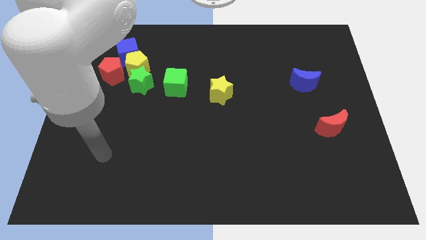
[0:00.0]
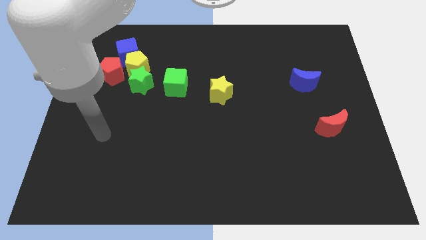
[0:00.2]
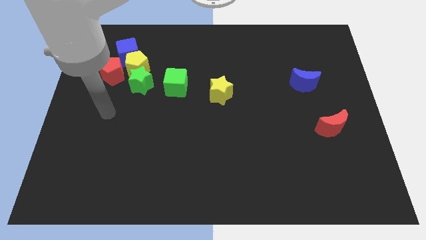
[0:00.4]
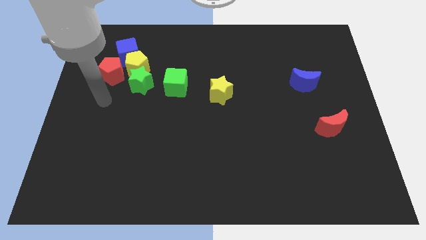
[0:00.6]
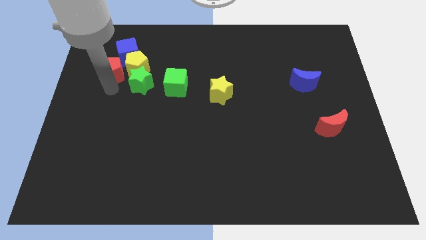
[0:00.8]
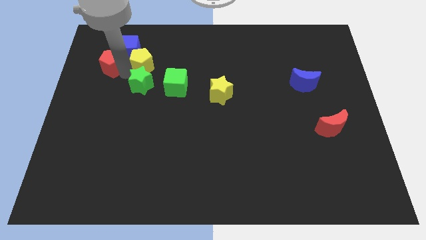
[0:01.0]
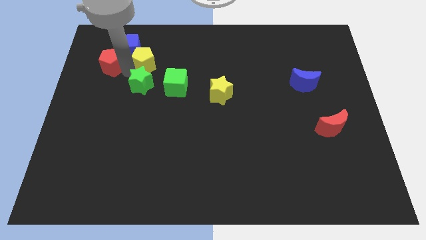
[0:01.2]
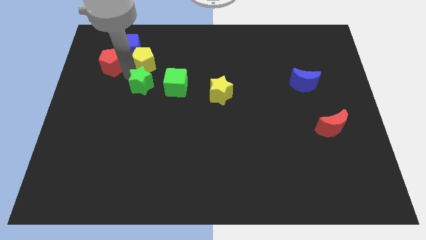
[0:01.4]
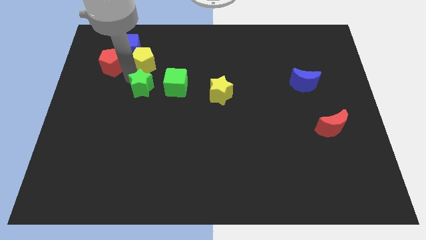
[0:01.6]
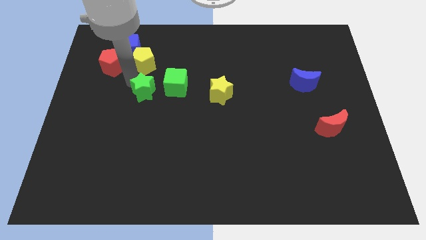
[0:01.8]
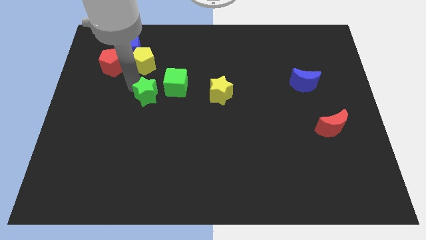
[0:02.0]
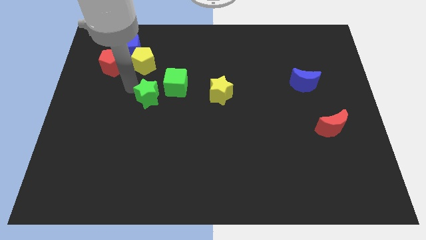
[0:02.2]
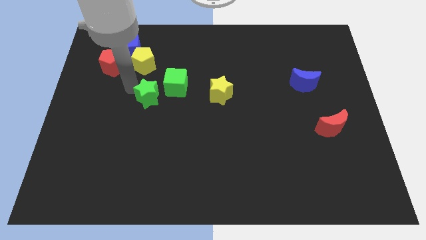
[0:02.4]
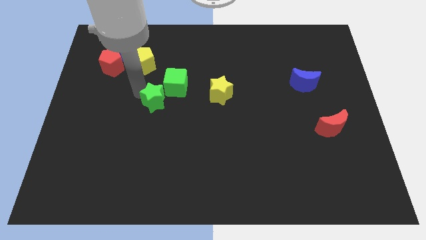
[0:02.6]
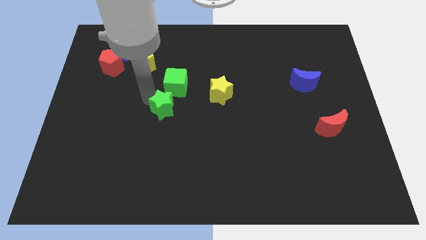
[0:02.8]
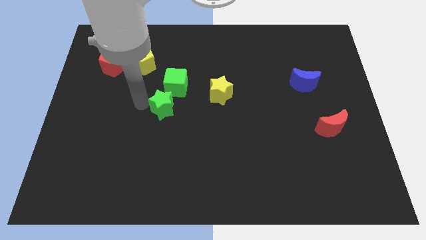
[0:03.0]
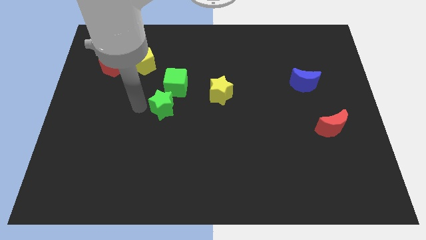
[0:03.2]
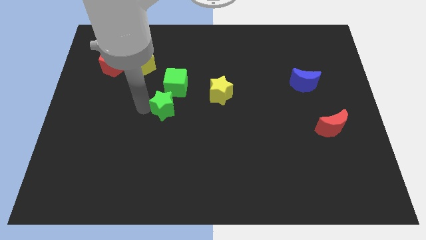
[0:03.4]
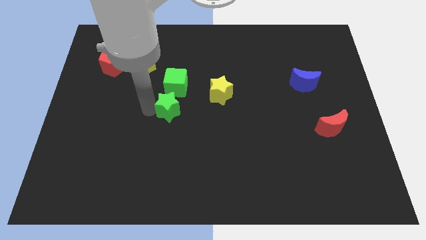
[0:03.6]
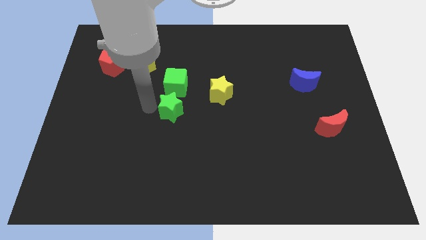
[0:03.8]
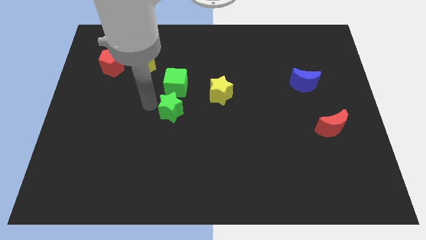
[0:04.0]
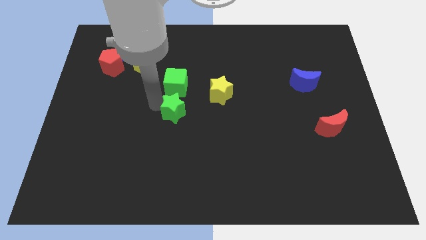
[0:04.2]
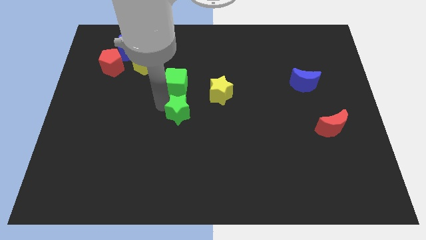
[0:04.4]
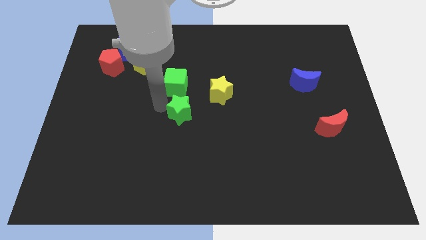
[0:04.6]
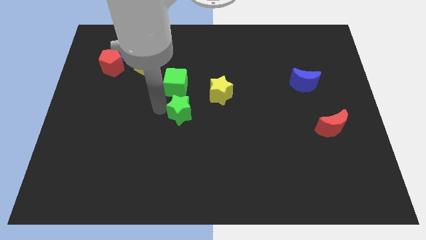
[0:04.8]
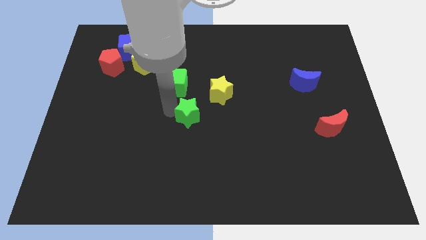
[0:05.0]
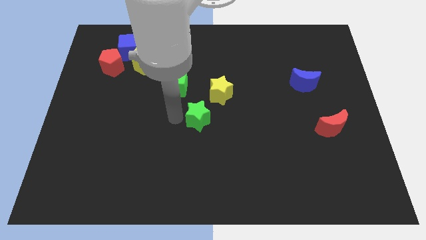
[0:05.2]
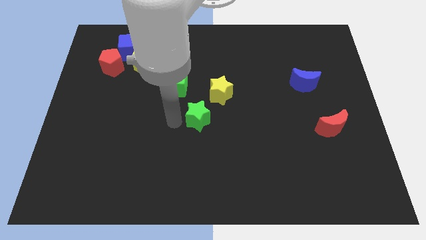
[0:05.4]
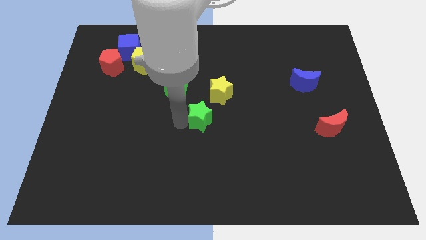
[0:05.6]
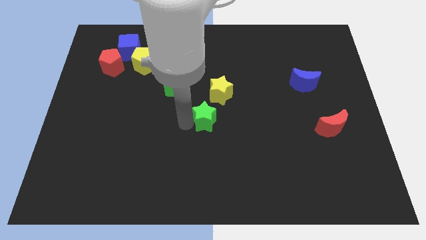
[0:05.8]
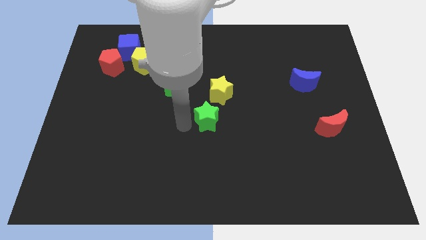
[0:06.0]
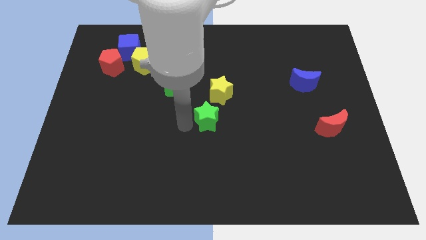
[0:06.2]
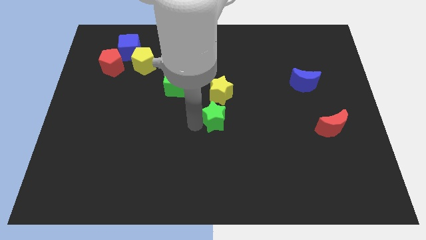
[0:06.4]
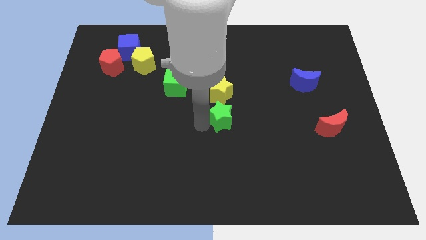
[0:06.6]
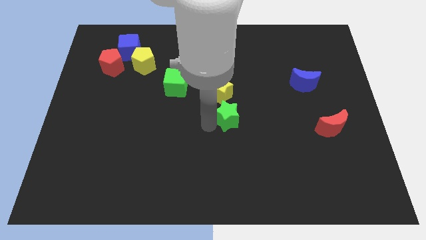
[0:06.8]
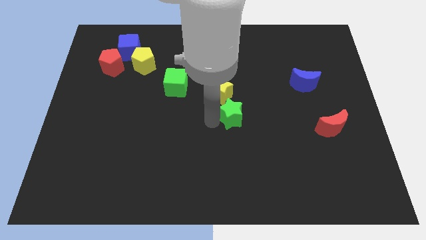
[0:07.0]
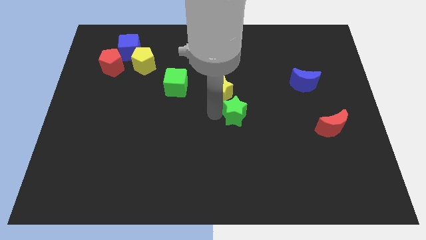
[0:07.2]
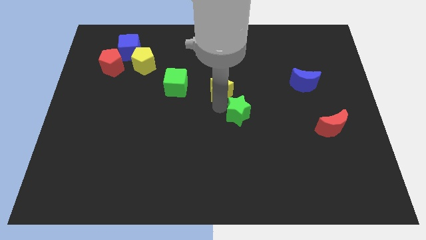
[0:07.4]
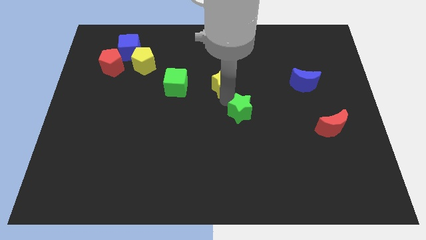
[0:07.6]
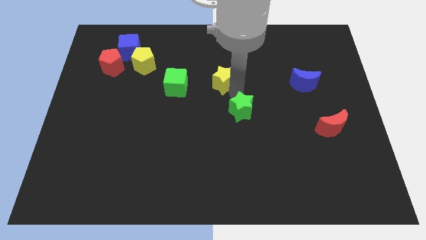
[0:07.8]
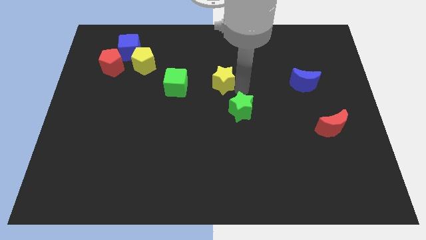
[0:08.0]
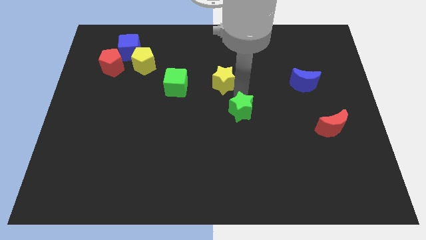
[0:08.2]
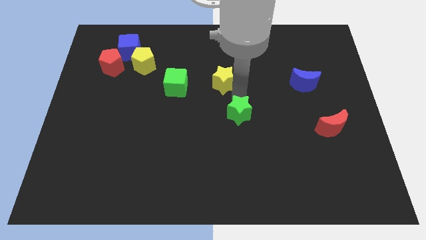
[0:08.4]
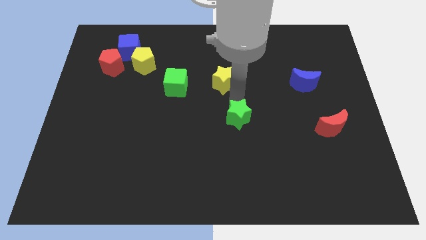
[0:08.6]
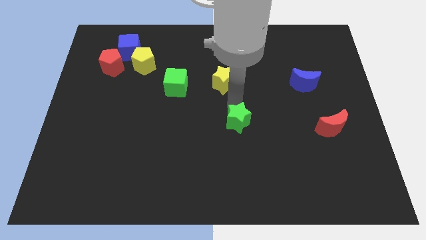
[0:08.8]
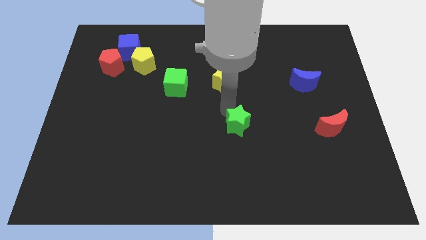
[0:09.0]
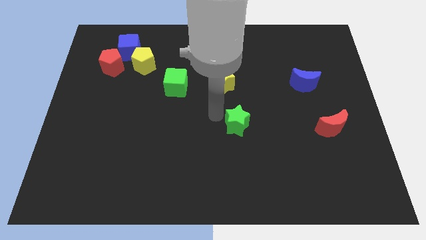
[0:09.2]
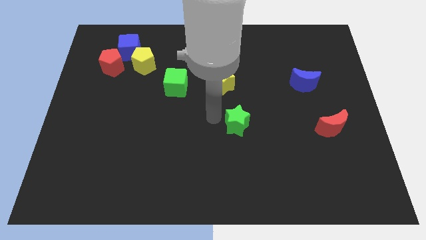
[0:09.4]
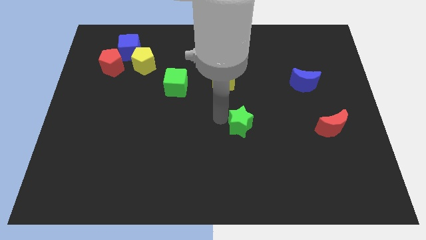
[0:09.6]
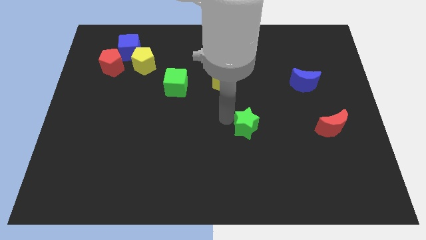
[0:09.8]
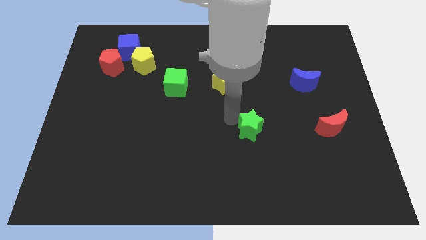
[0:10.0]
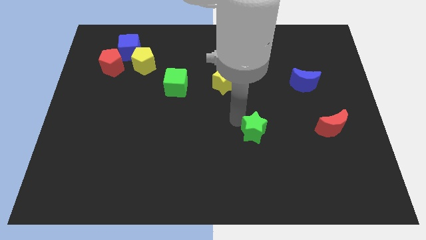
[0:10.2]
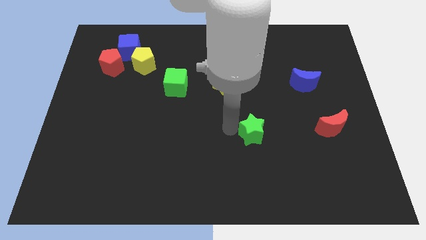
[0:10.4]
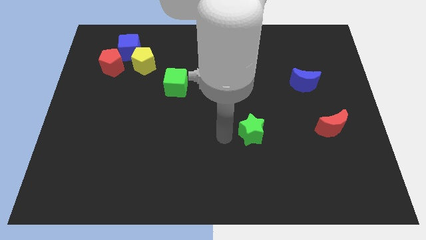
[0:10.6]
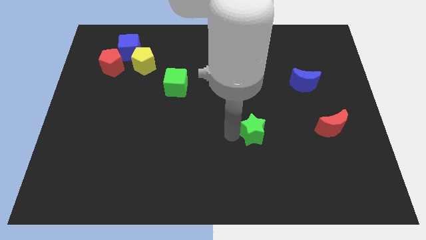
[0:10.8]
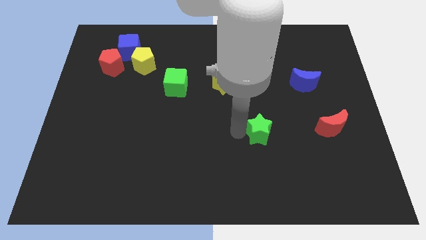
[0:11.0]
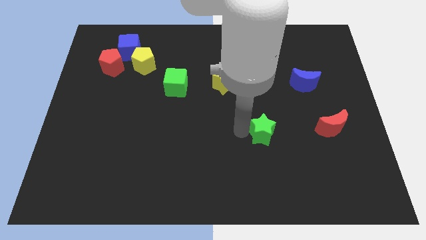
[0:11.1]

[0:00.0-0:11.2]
put the green star to the left of the red moon
